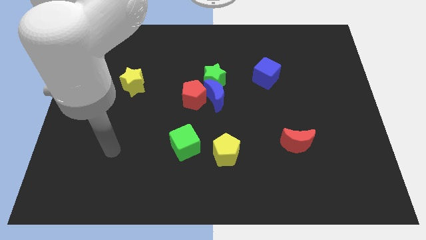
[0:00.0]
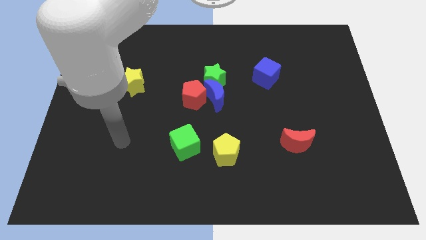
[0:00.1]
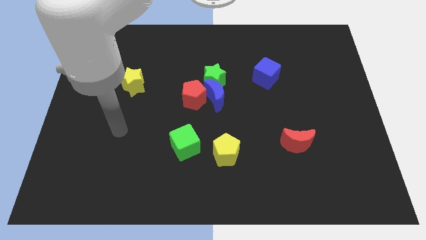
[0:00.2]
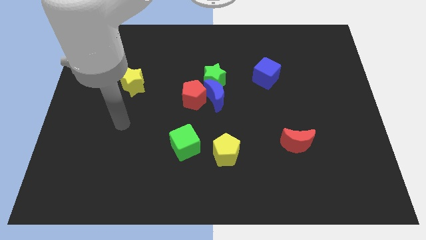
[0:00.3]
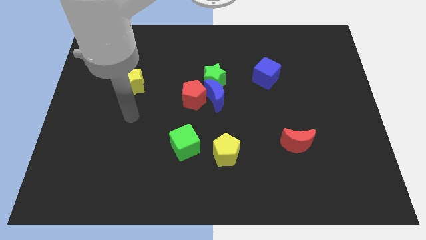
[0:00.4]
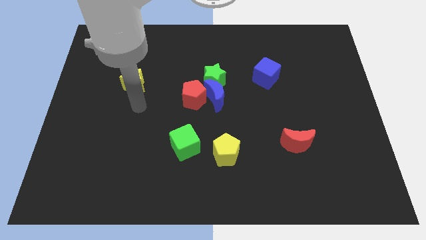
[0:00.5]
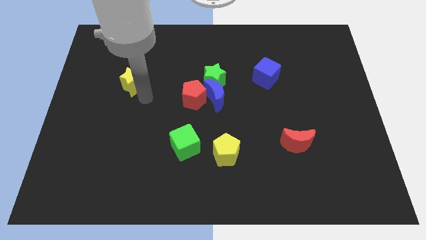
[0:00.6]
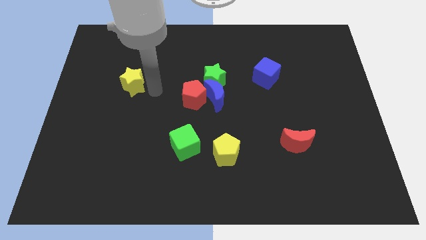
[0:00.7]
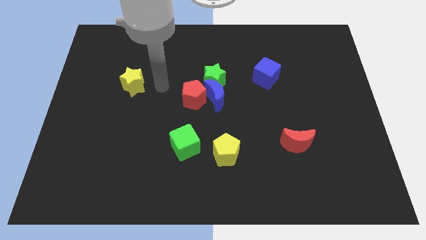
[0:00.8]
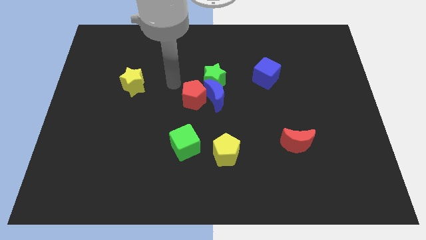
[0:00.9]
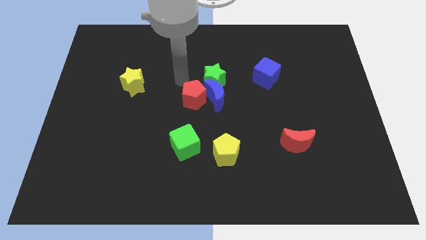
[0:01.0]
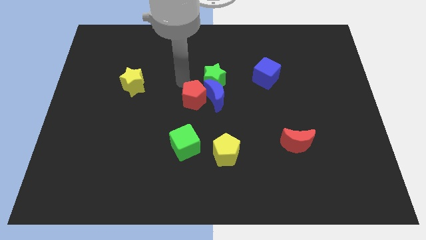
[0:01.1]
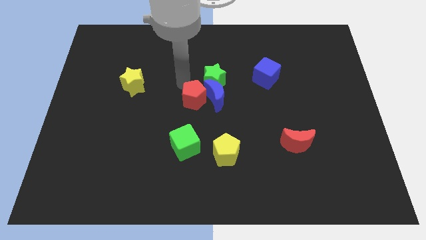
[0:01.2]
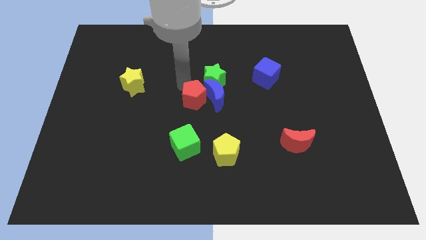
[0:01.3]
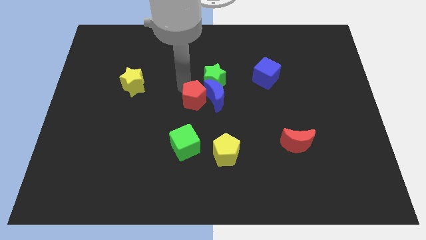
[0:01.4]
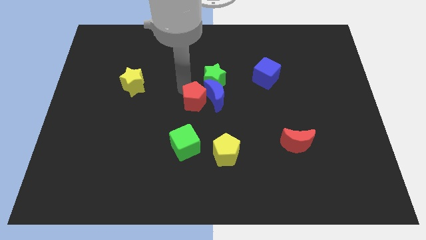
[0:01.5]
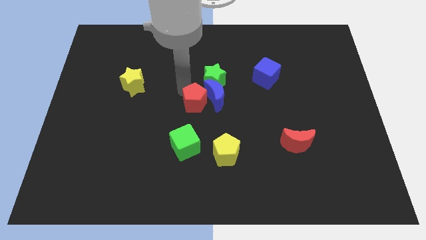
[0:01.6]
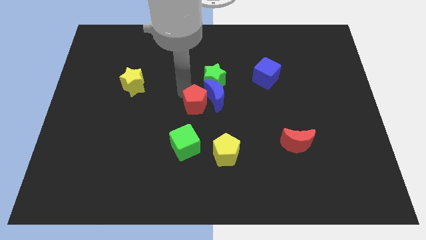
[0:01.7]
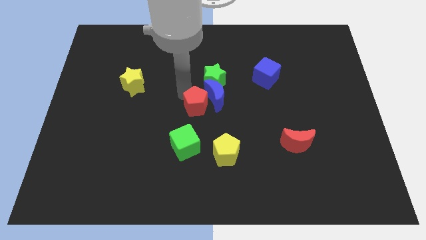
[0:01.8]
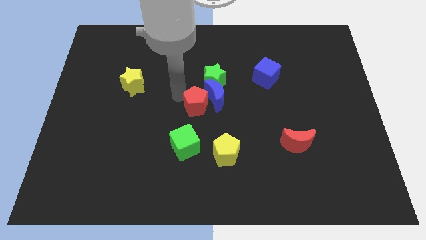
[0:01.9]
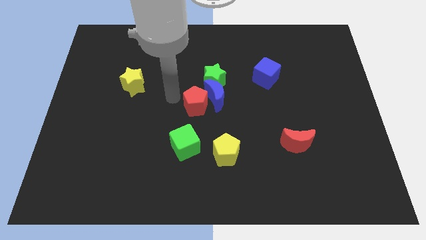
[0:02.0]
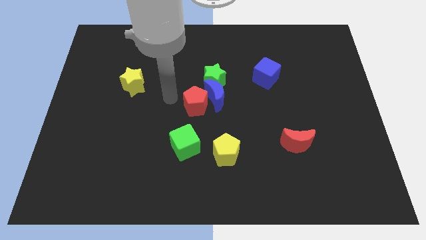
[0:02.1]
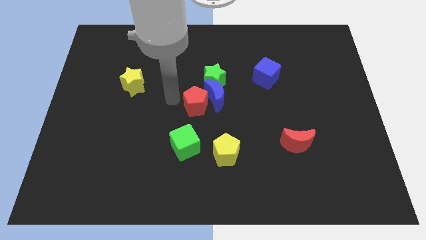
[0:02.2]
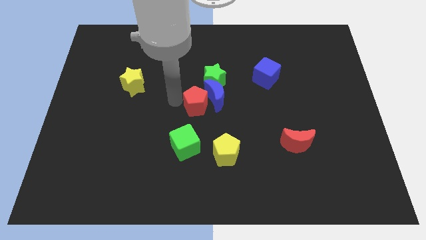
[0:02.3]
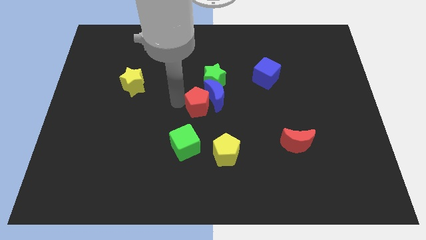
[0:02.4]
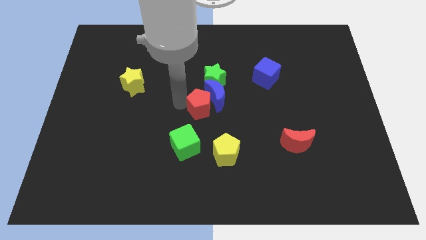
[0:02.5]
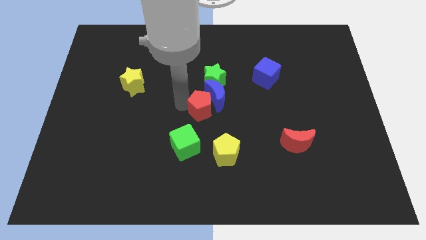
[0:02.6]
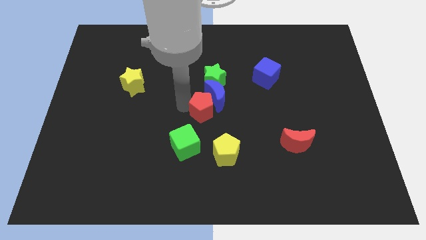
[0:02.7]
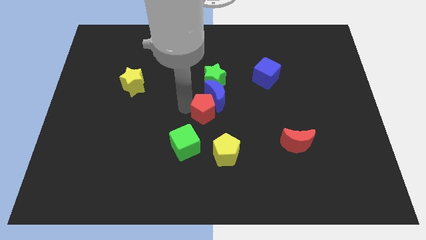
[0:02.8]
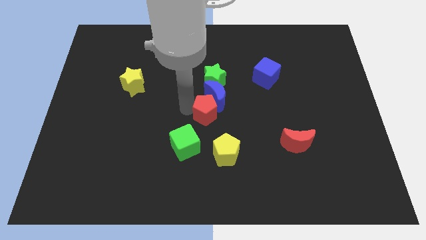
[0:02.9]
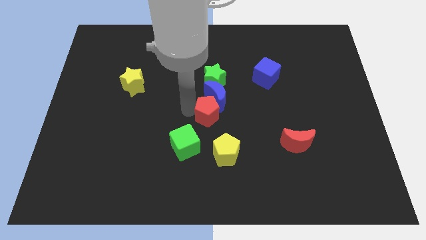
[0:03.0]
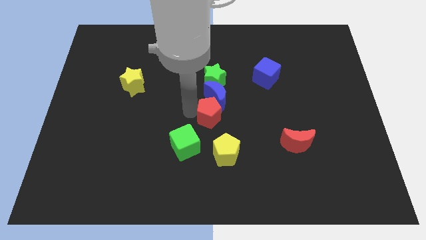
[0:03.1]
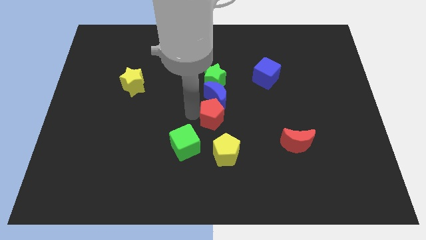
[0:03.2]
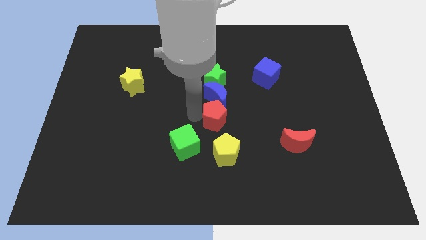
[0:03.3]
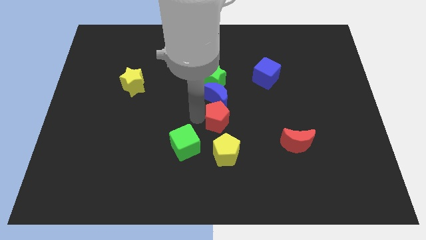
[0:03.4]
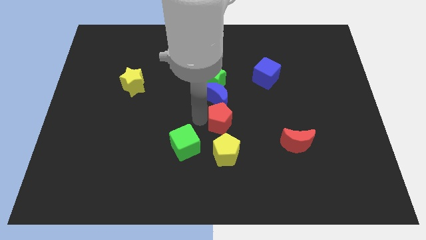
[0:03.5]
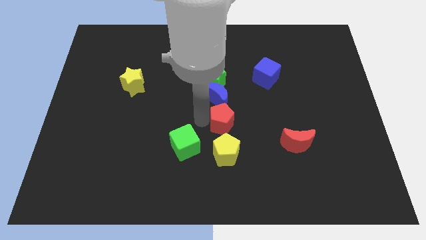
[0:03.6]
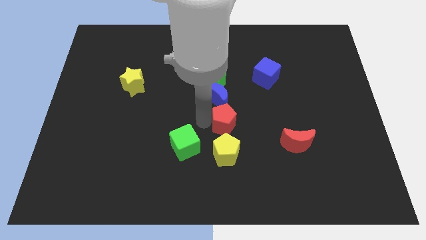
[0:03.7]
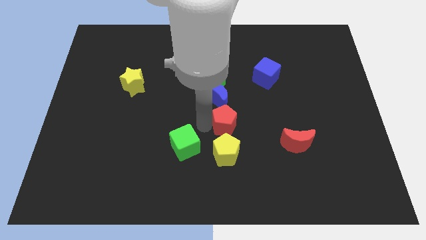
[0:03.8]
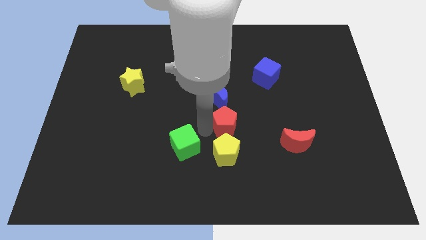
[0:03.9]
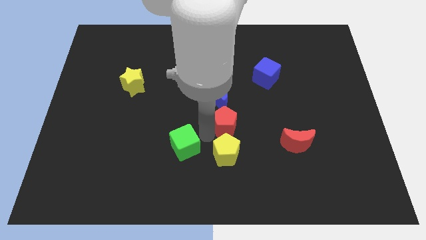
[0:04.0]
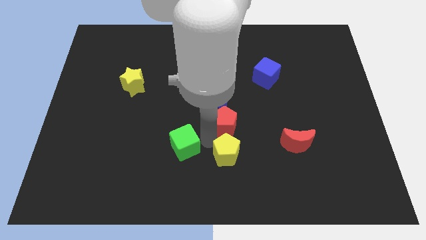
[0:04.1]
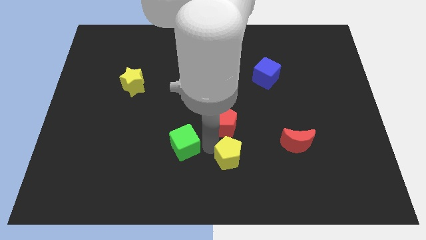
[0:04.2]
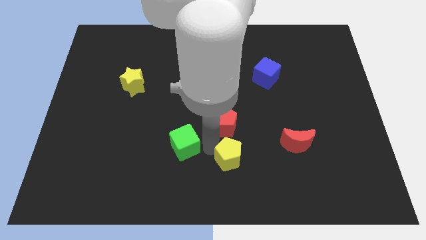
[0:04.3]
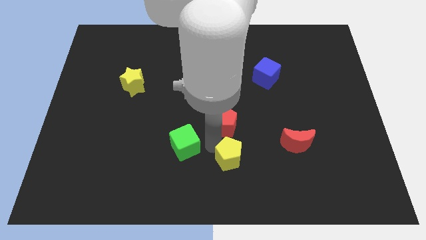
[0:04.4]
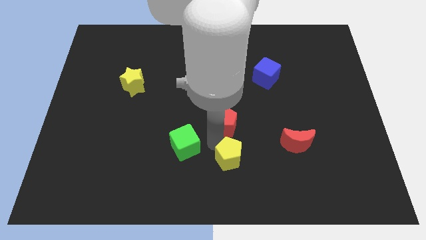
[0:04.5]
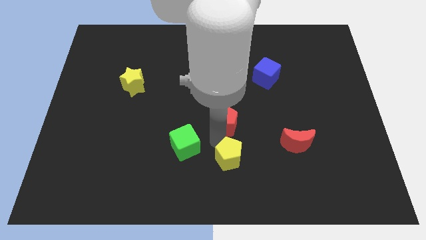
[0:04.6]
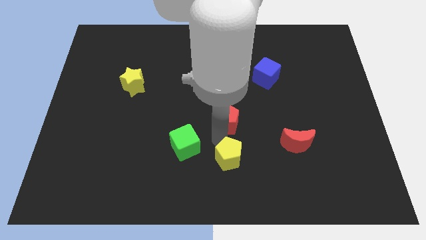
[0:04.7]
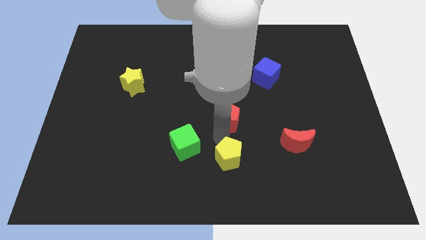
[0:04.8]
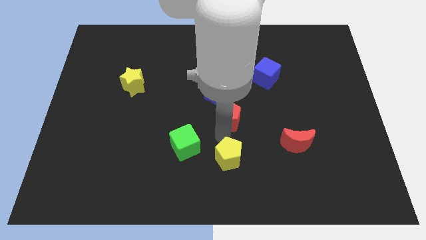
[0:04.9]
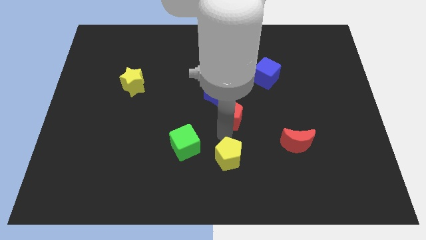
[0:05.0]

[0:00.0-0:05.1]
push the red pentagon a little bit right

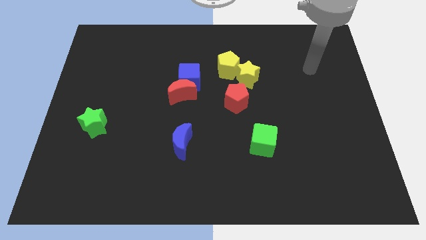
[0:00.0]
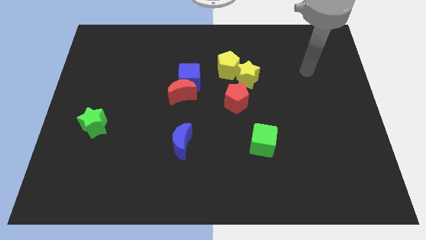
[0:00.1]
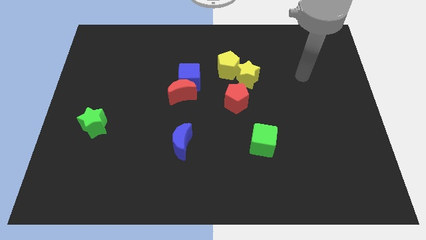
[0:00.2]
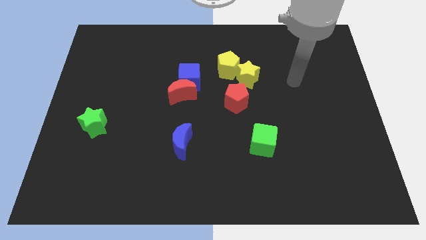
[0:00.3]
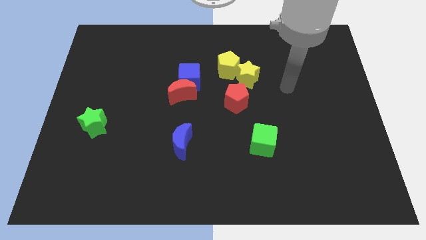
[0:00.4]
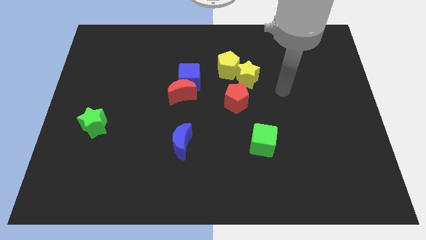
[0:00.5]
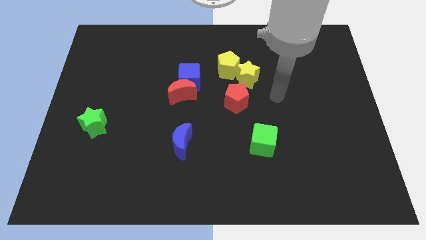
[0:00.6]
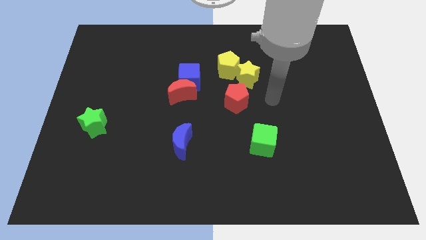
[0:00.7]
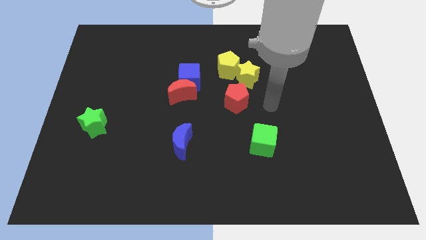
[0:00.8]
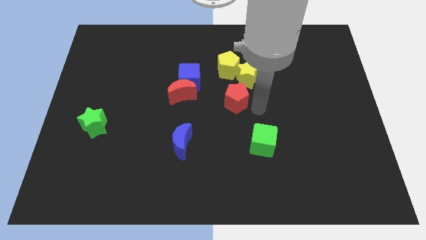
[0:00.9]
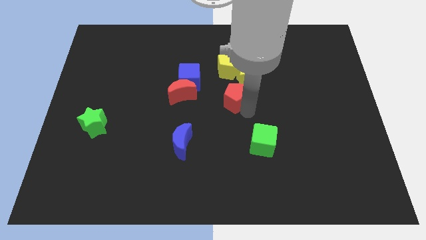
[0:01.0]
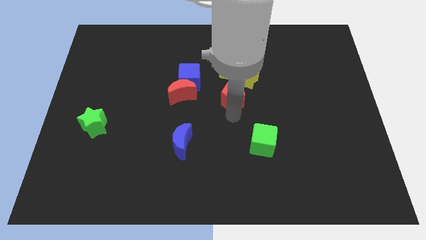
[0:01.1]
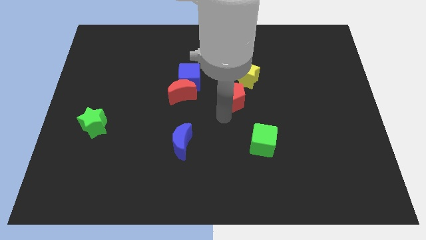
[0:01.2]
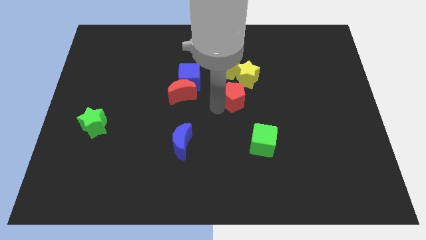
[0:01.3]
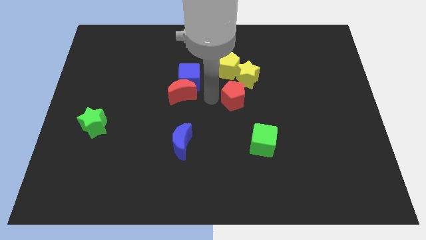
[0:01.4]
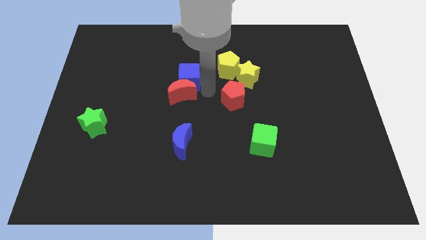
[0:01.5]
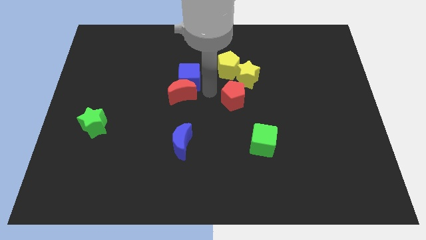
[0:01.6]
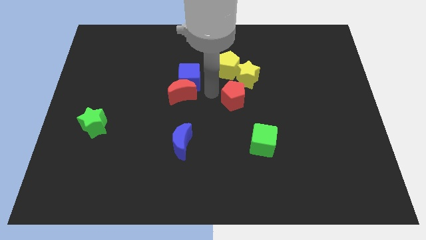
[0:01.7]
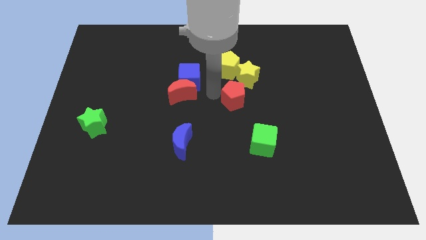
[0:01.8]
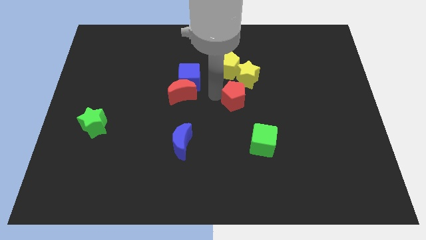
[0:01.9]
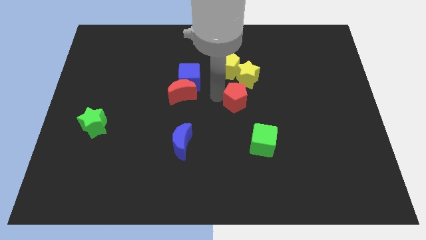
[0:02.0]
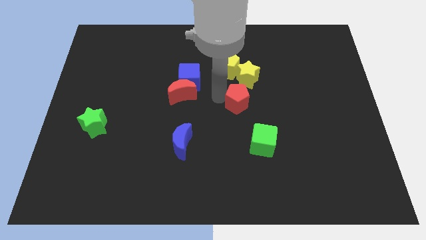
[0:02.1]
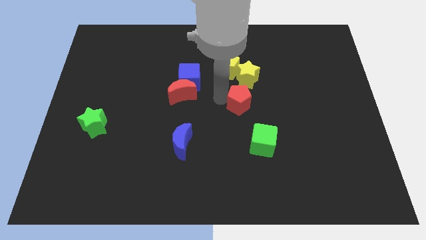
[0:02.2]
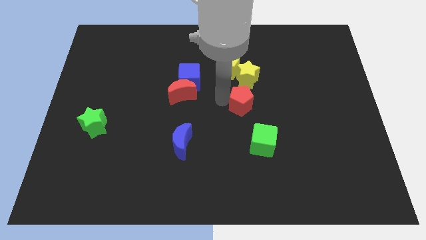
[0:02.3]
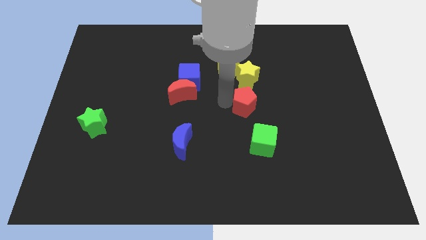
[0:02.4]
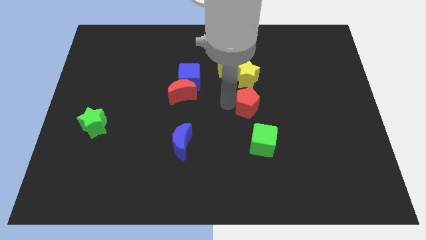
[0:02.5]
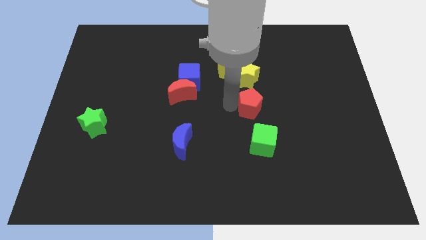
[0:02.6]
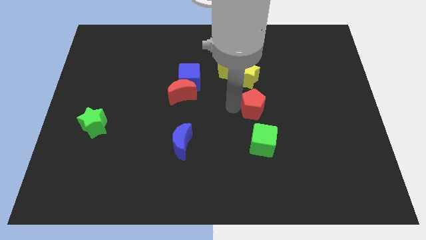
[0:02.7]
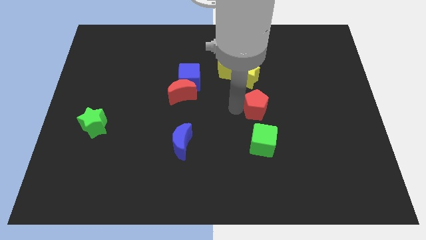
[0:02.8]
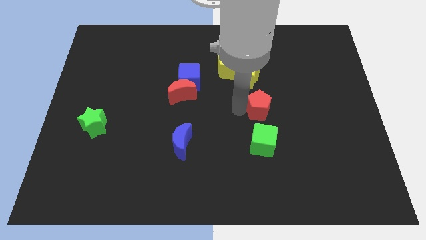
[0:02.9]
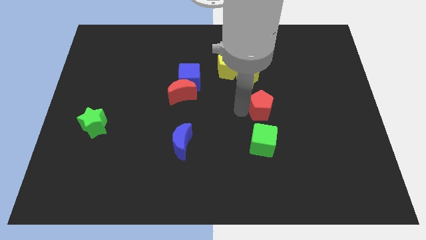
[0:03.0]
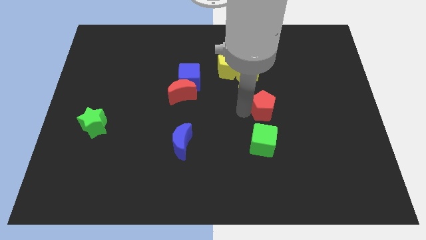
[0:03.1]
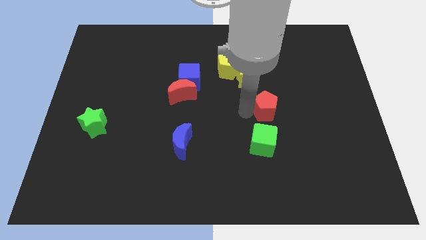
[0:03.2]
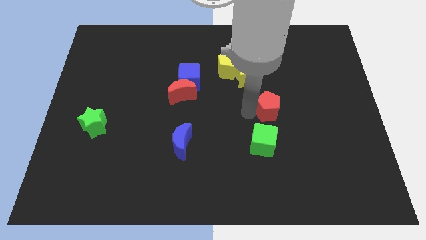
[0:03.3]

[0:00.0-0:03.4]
slightly push the red pentagon right
